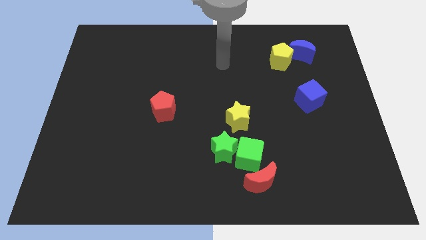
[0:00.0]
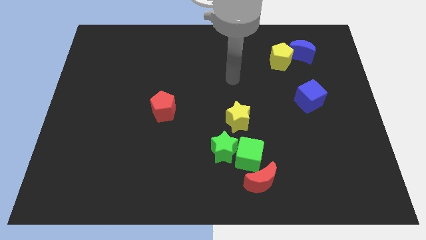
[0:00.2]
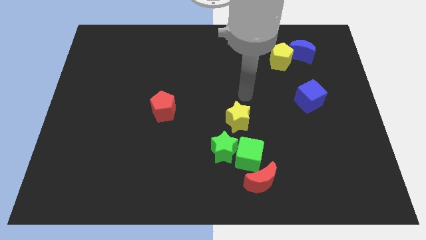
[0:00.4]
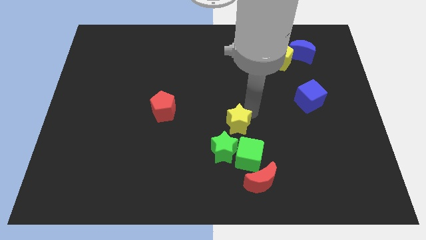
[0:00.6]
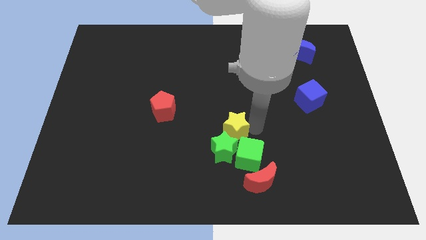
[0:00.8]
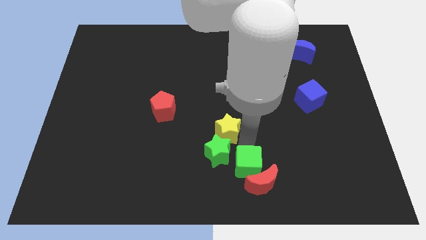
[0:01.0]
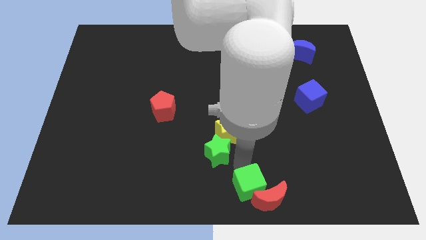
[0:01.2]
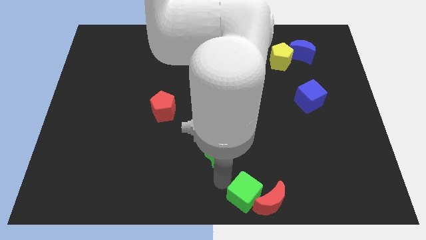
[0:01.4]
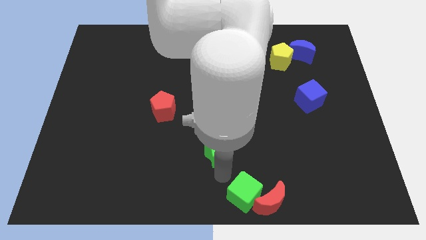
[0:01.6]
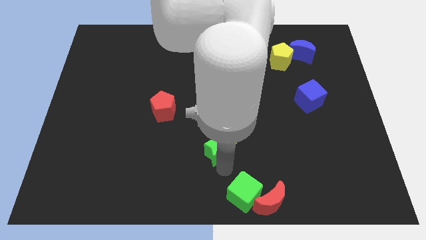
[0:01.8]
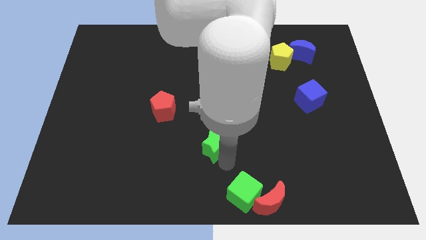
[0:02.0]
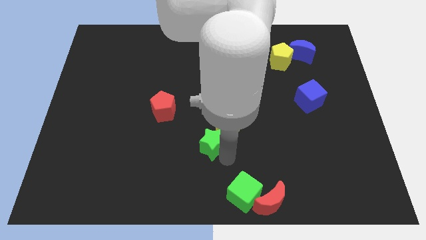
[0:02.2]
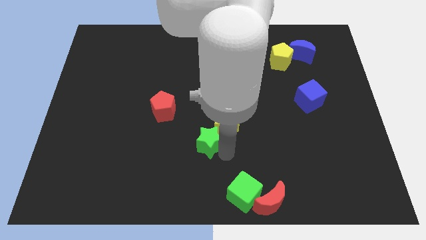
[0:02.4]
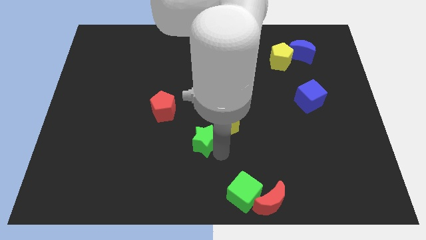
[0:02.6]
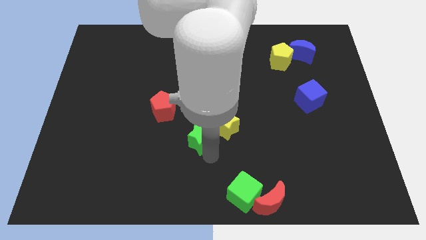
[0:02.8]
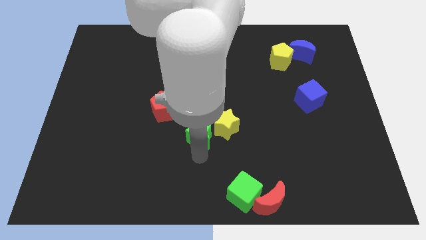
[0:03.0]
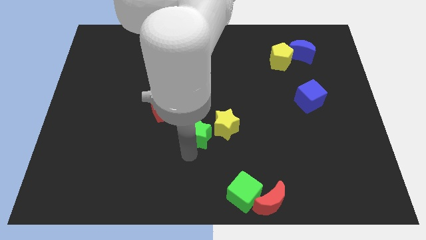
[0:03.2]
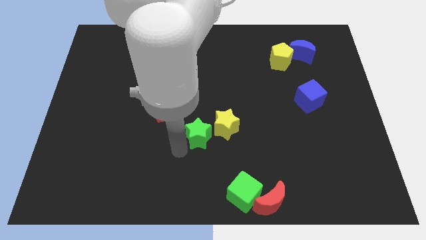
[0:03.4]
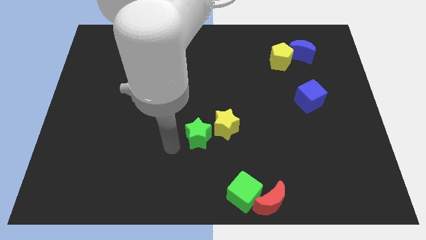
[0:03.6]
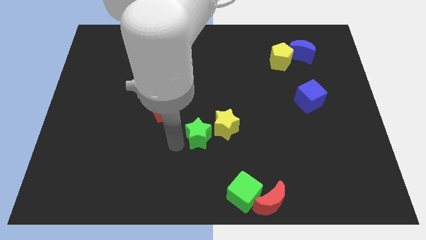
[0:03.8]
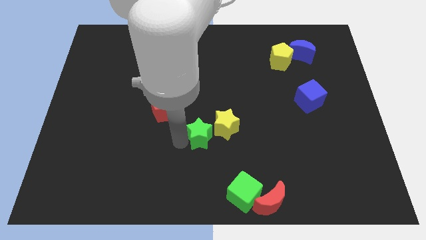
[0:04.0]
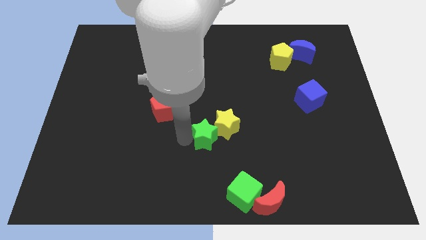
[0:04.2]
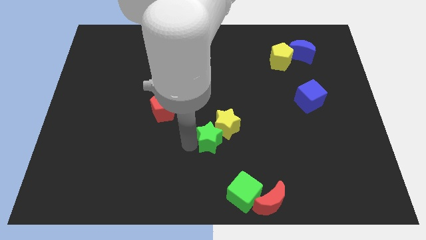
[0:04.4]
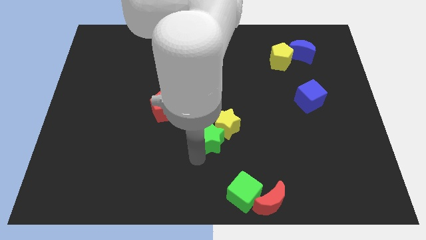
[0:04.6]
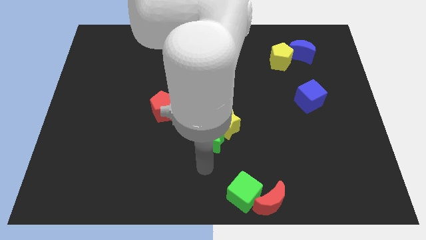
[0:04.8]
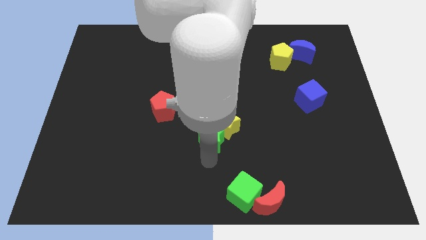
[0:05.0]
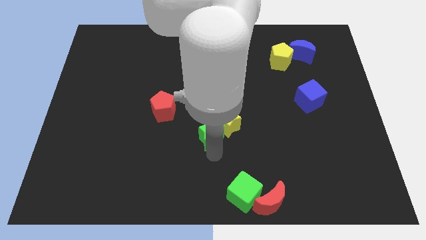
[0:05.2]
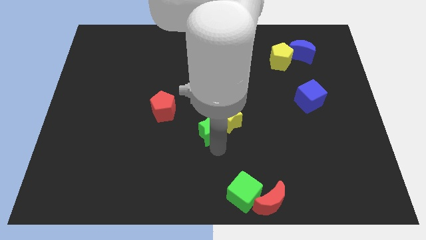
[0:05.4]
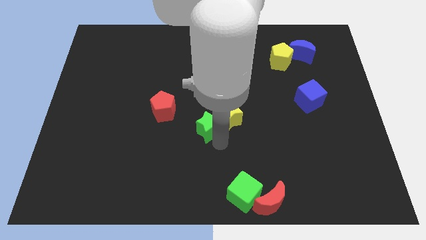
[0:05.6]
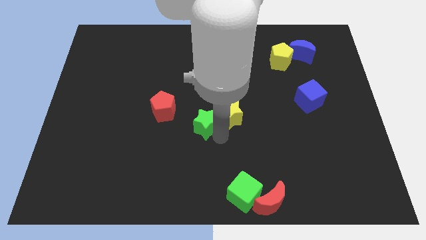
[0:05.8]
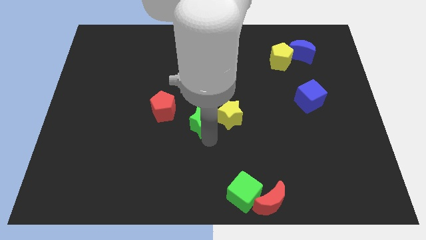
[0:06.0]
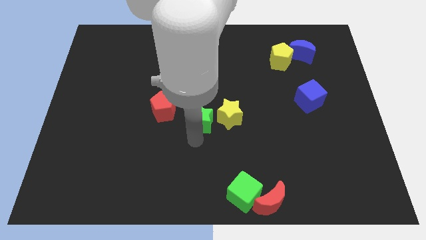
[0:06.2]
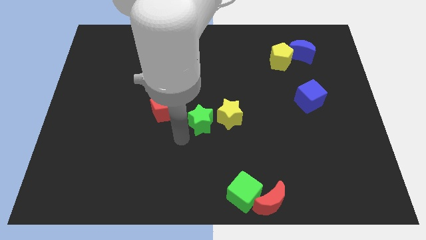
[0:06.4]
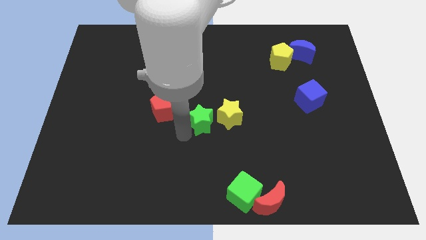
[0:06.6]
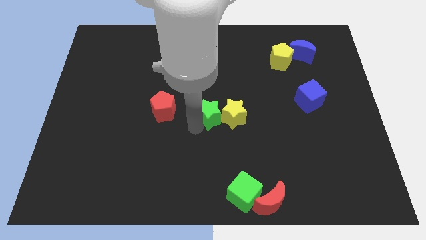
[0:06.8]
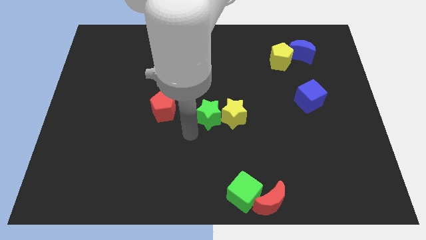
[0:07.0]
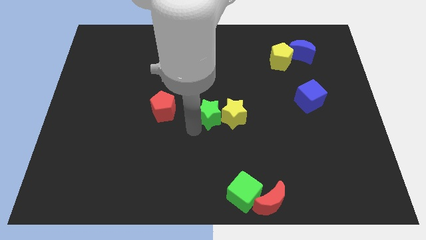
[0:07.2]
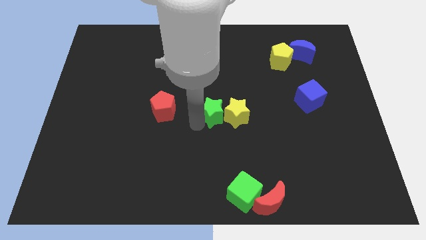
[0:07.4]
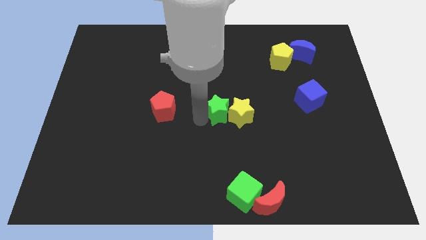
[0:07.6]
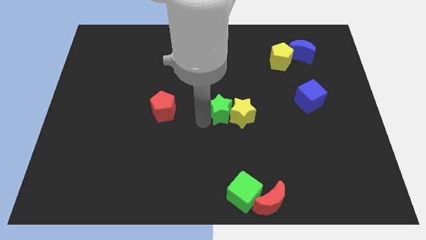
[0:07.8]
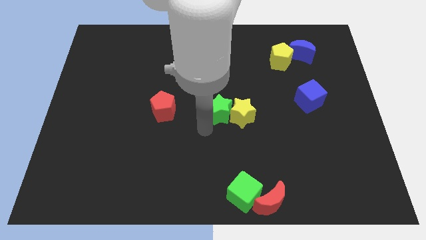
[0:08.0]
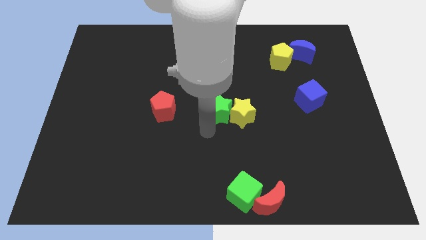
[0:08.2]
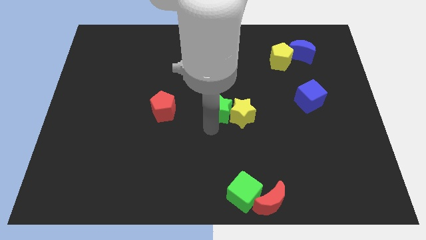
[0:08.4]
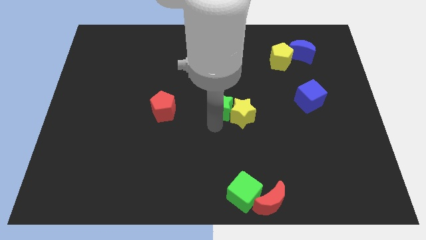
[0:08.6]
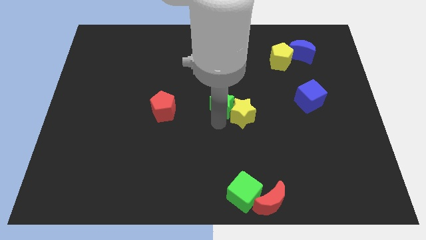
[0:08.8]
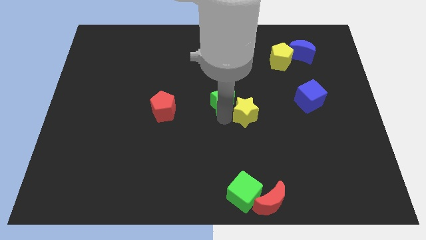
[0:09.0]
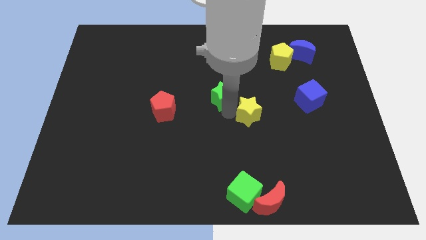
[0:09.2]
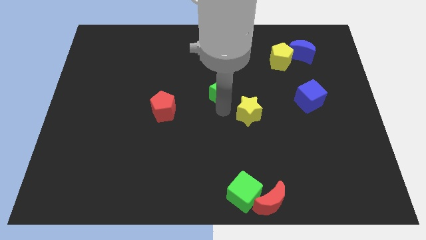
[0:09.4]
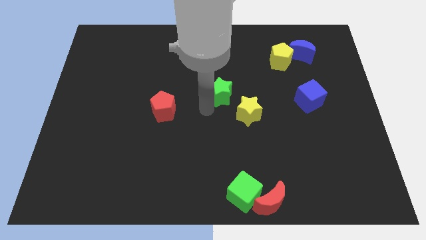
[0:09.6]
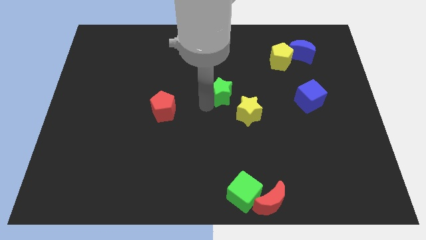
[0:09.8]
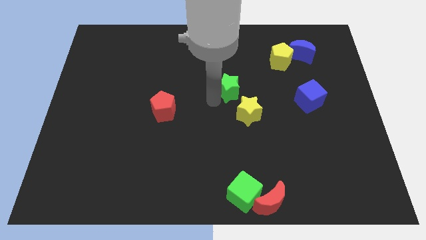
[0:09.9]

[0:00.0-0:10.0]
push the green star above the yellow star

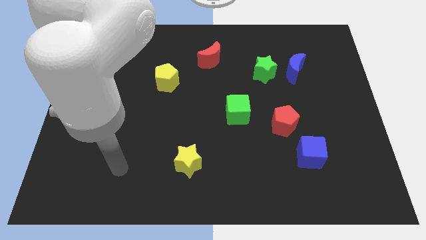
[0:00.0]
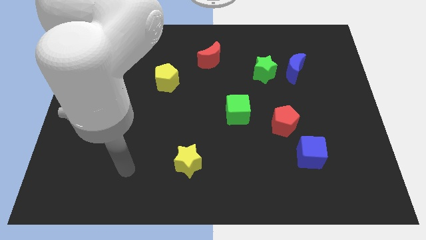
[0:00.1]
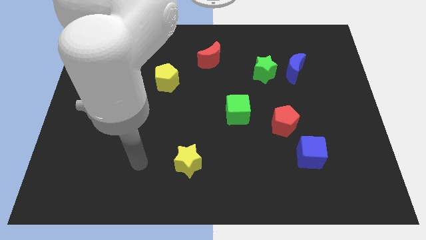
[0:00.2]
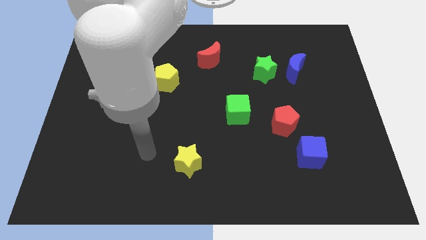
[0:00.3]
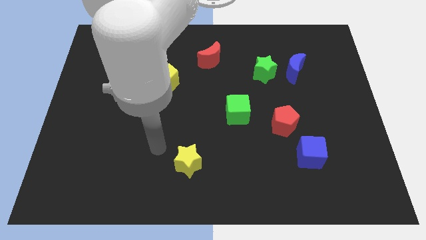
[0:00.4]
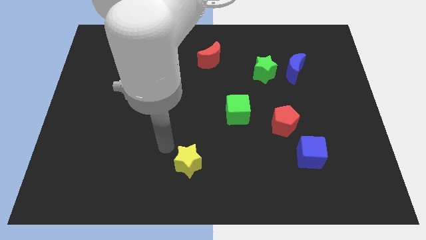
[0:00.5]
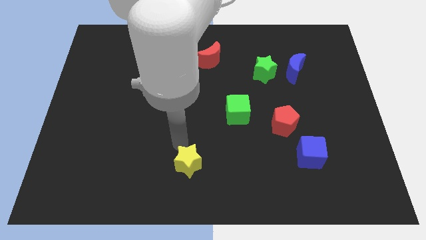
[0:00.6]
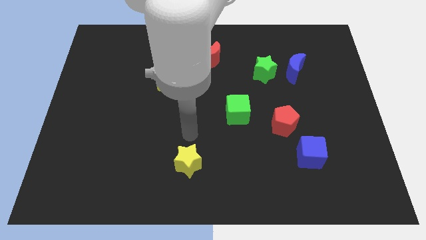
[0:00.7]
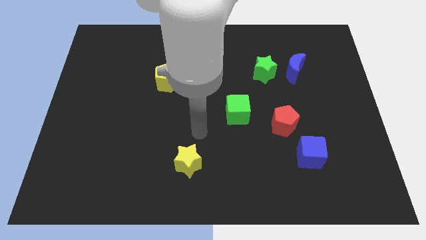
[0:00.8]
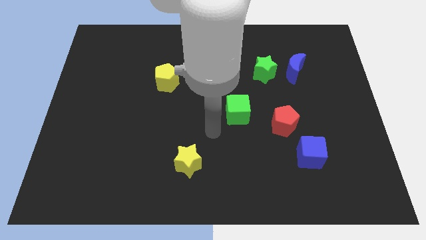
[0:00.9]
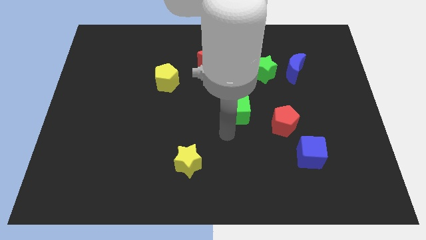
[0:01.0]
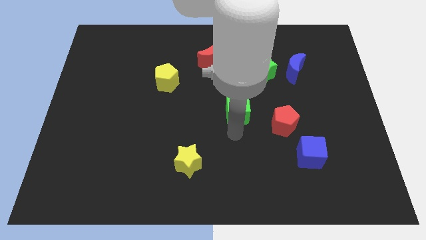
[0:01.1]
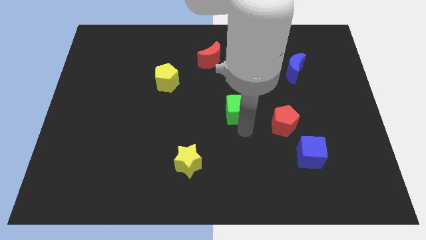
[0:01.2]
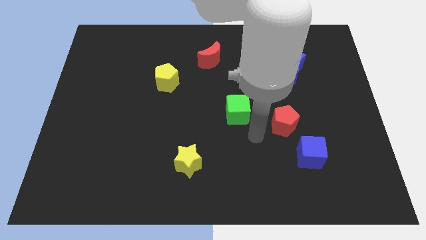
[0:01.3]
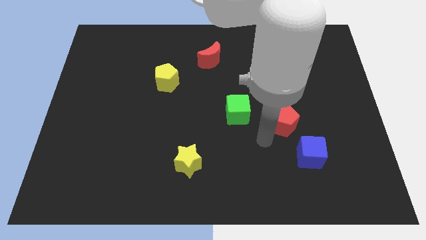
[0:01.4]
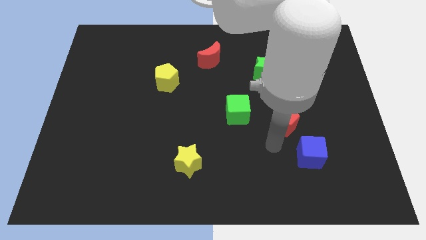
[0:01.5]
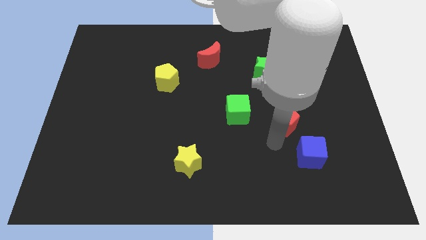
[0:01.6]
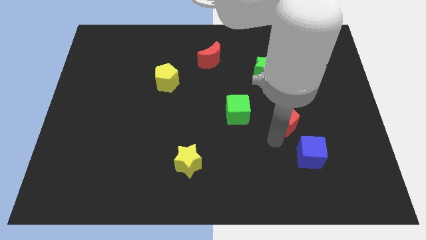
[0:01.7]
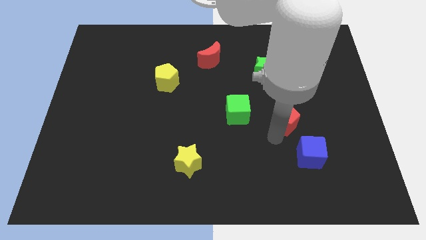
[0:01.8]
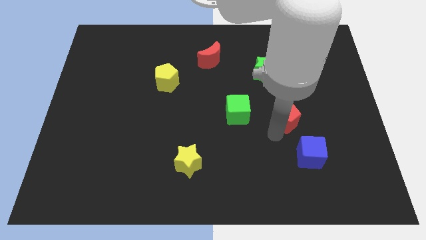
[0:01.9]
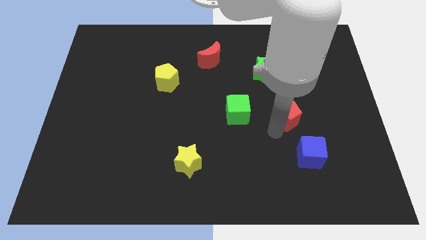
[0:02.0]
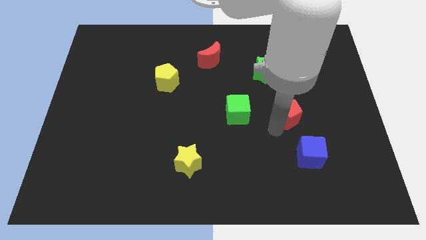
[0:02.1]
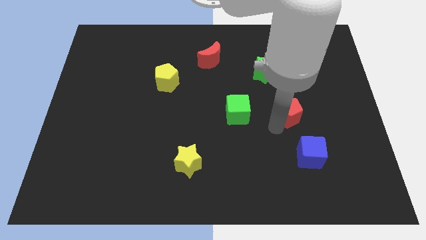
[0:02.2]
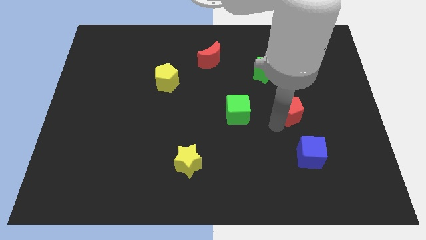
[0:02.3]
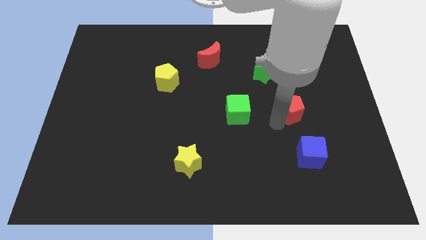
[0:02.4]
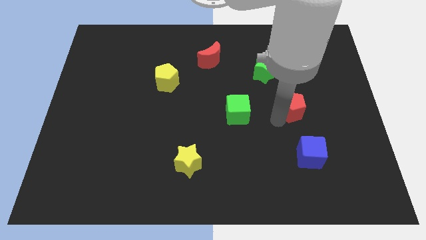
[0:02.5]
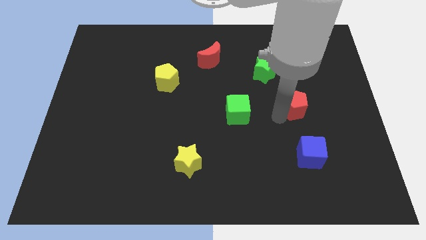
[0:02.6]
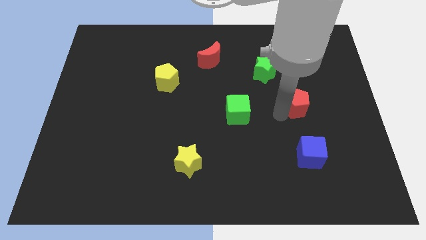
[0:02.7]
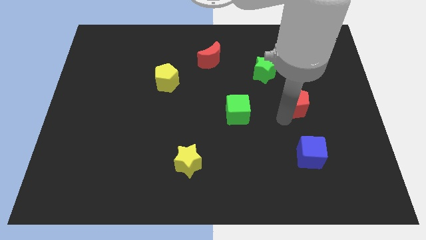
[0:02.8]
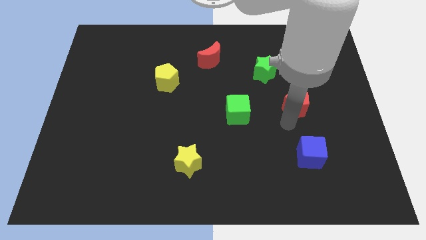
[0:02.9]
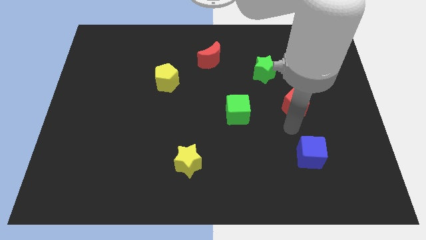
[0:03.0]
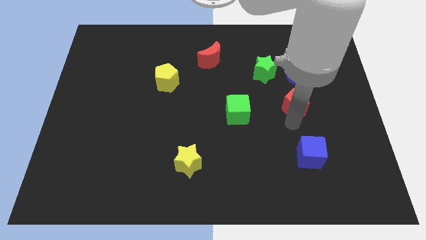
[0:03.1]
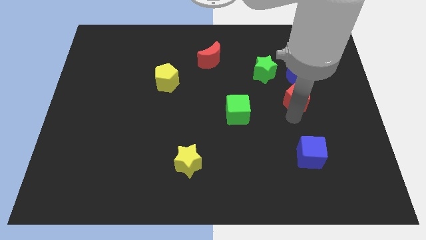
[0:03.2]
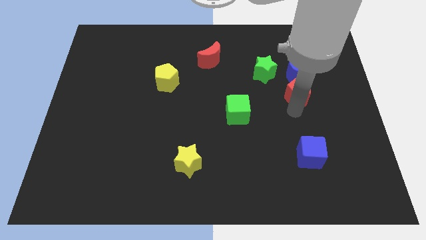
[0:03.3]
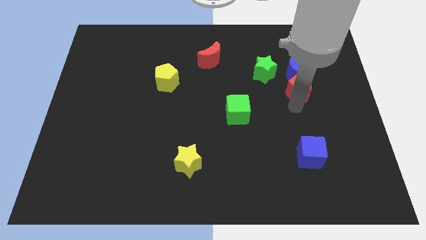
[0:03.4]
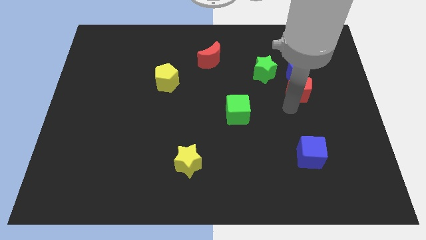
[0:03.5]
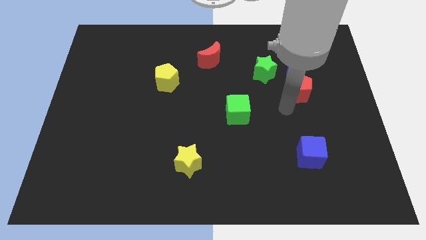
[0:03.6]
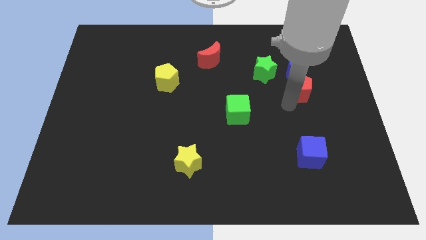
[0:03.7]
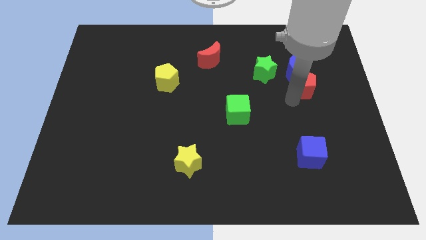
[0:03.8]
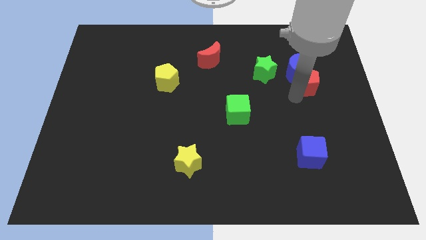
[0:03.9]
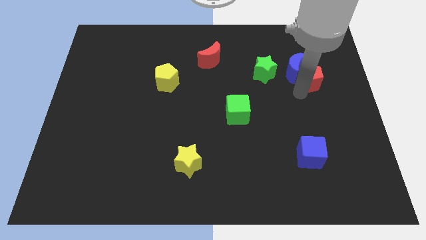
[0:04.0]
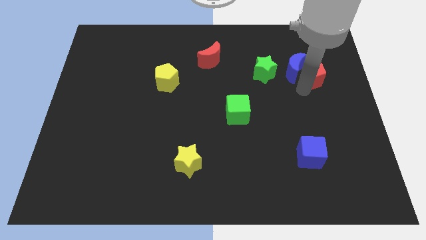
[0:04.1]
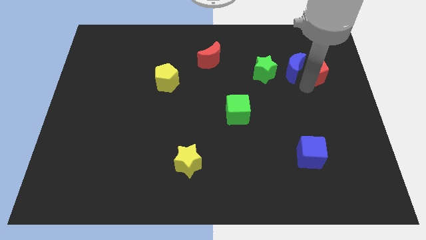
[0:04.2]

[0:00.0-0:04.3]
push the red pentagon to the top right side of the blue moon
